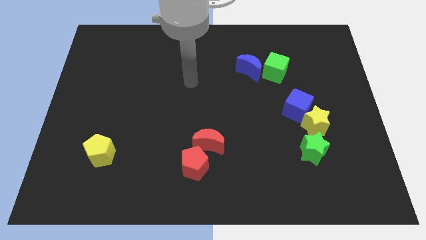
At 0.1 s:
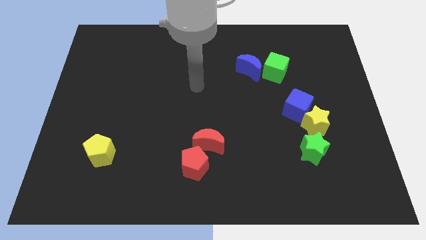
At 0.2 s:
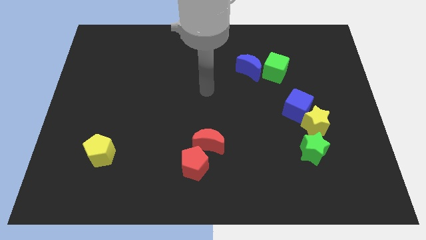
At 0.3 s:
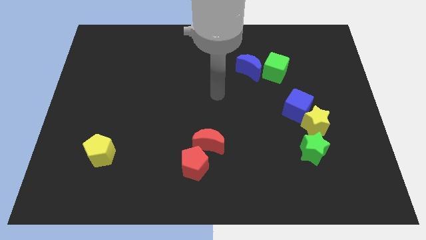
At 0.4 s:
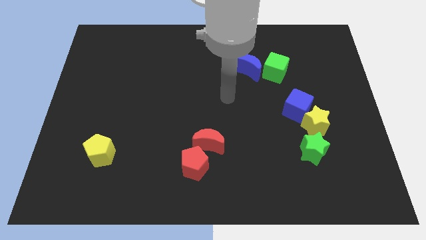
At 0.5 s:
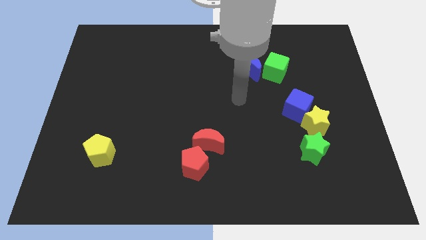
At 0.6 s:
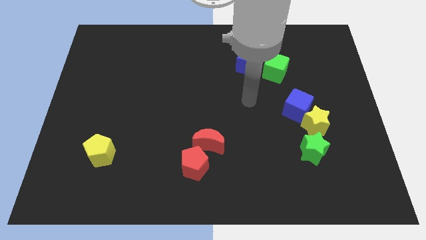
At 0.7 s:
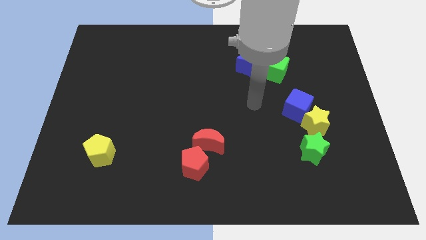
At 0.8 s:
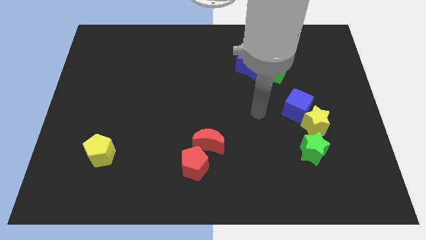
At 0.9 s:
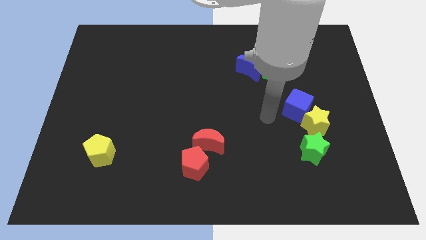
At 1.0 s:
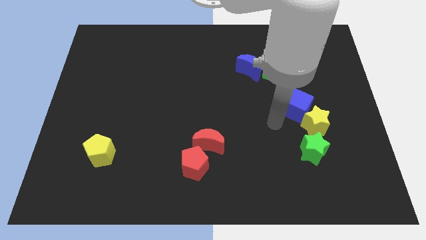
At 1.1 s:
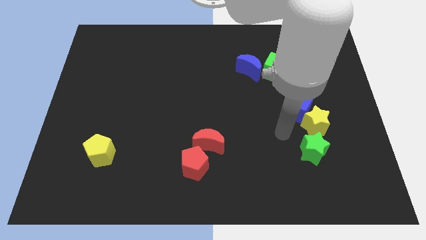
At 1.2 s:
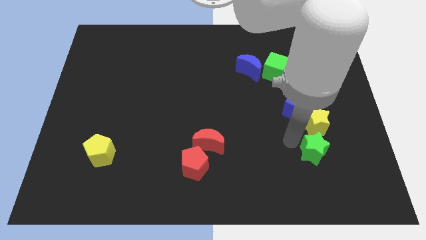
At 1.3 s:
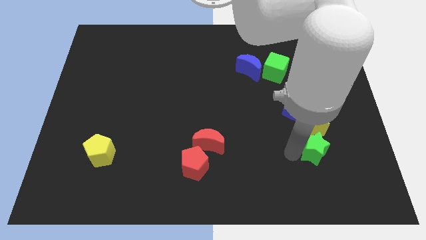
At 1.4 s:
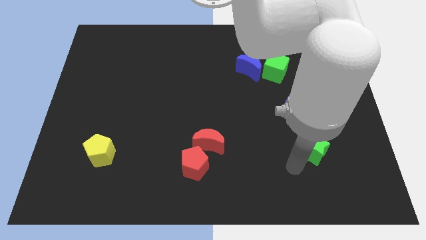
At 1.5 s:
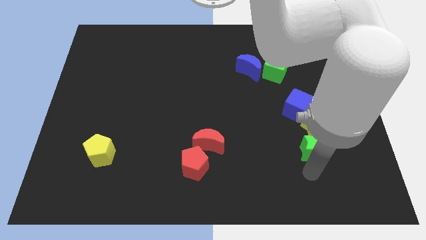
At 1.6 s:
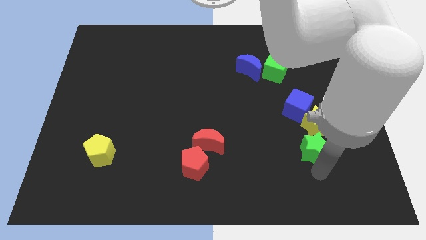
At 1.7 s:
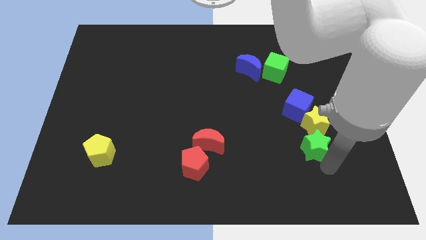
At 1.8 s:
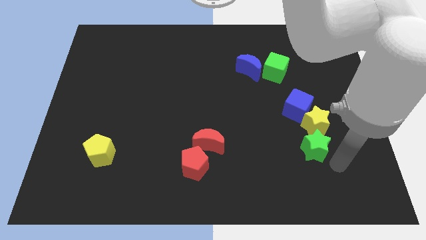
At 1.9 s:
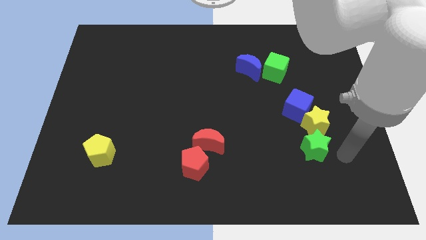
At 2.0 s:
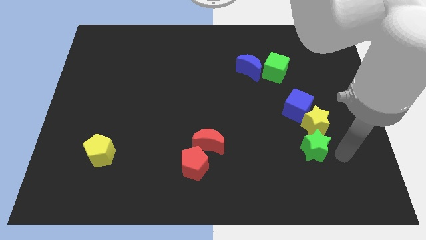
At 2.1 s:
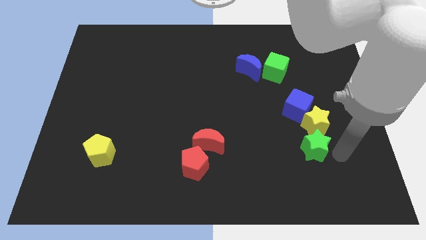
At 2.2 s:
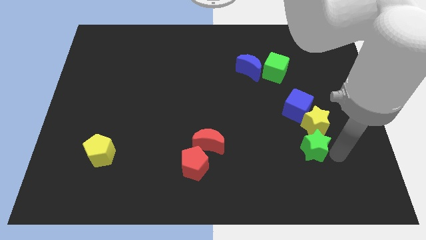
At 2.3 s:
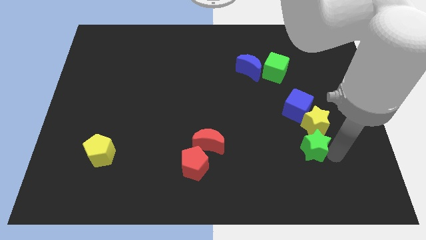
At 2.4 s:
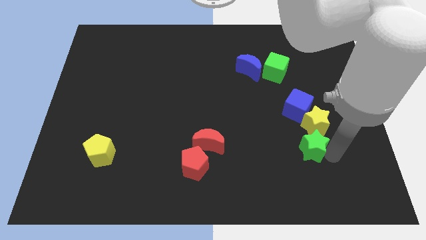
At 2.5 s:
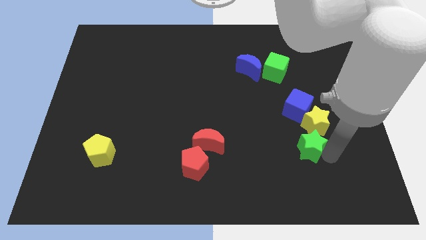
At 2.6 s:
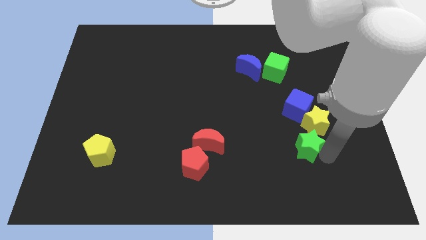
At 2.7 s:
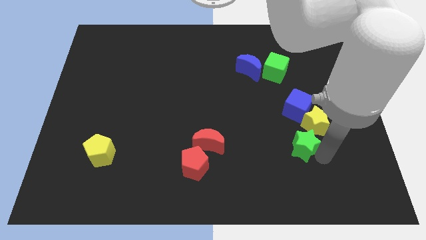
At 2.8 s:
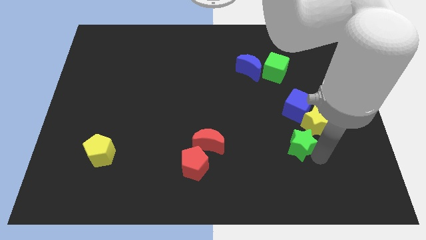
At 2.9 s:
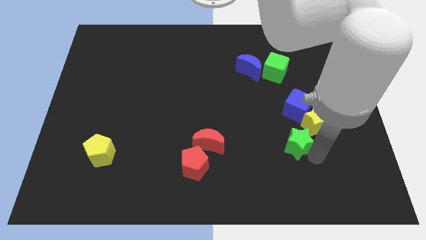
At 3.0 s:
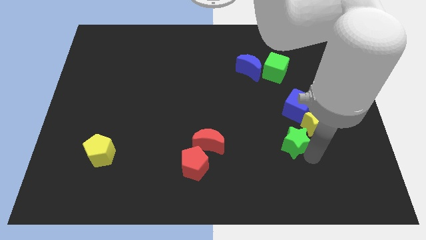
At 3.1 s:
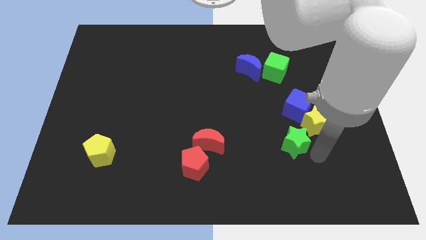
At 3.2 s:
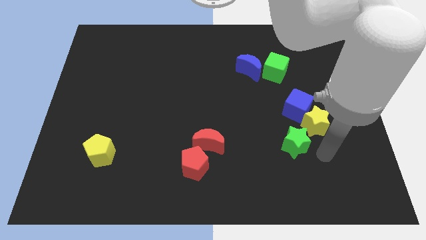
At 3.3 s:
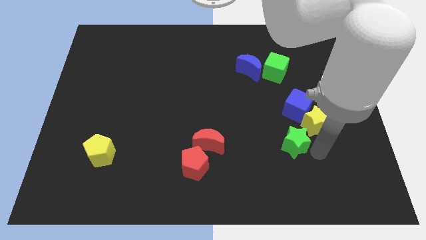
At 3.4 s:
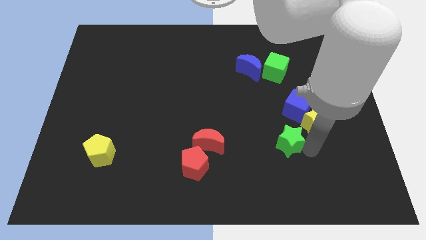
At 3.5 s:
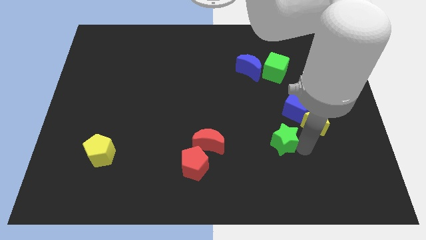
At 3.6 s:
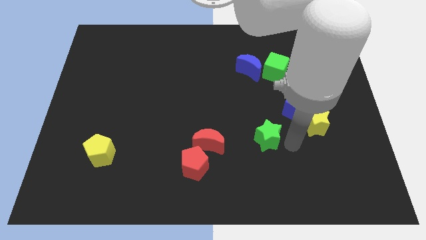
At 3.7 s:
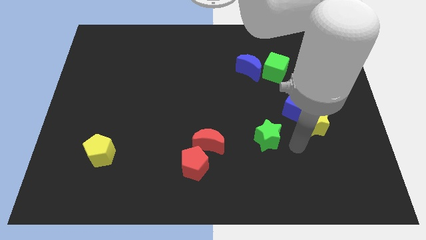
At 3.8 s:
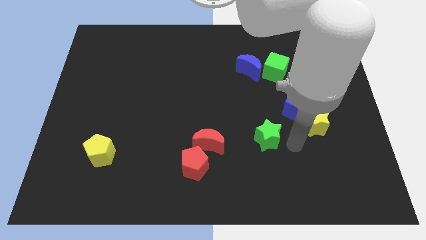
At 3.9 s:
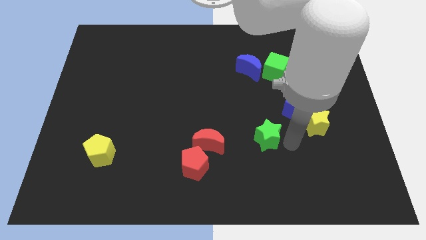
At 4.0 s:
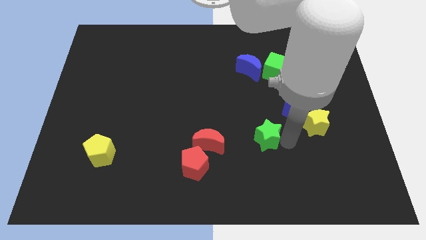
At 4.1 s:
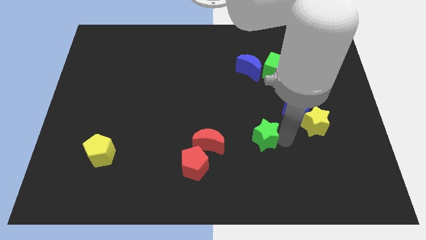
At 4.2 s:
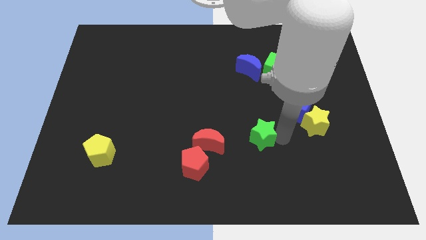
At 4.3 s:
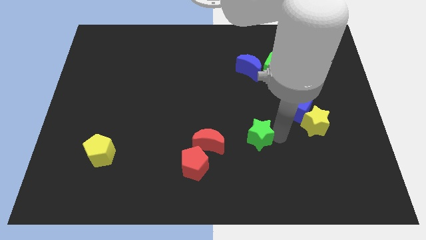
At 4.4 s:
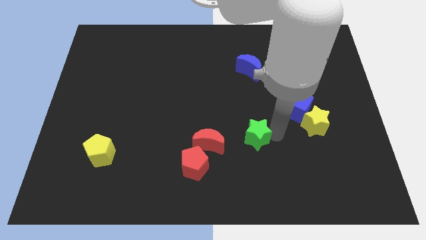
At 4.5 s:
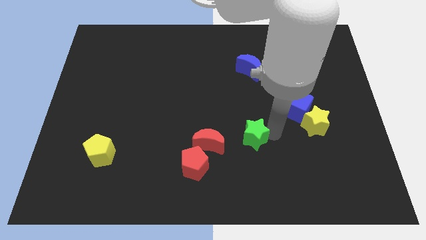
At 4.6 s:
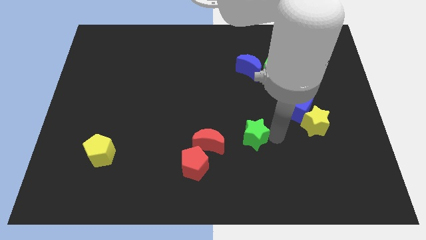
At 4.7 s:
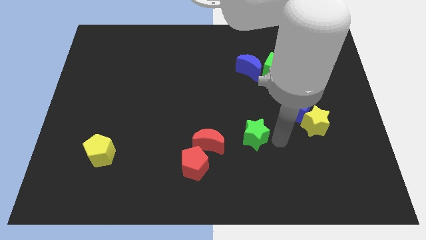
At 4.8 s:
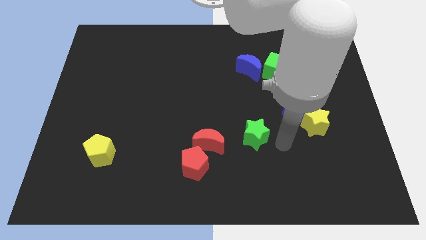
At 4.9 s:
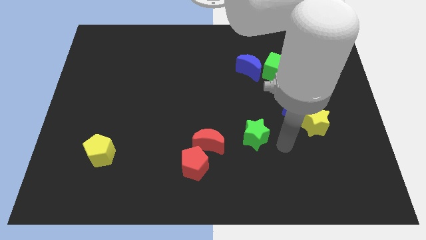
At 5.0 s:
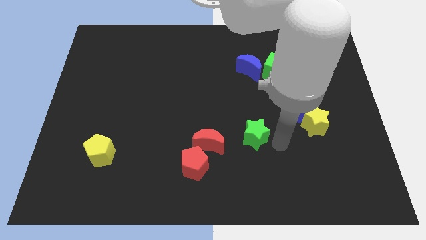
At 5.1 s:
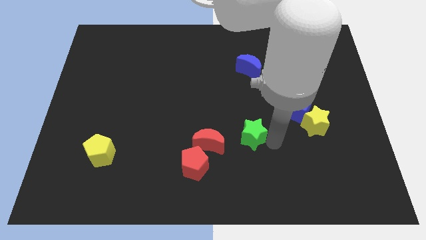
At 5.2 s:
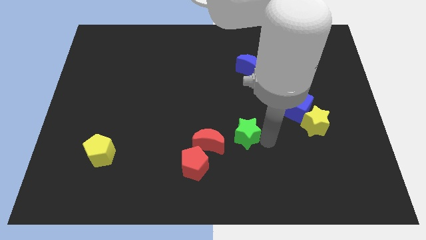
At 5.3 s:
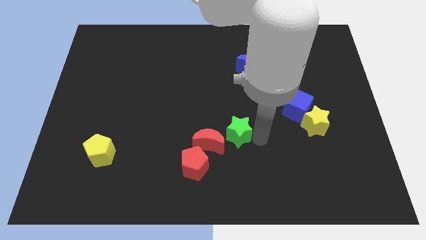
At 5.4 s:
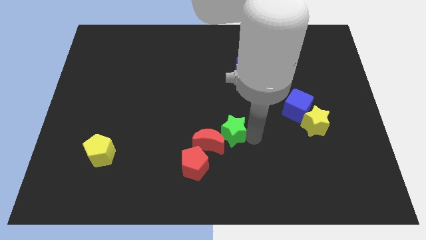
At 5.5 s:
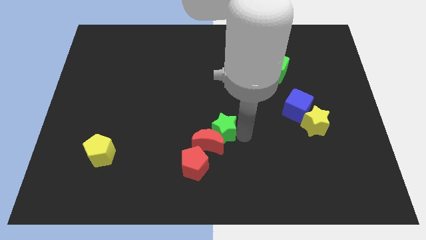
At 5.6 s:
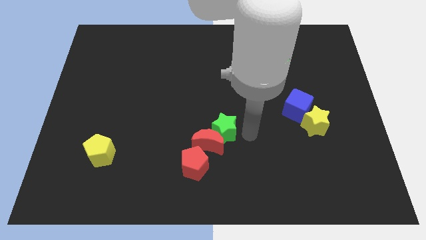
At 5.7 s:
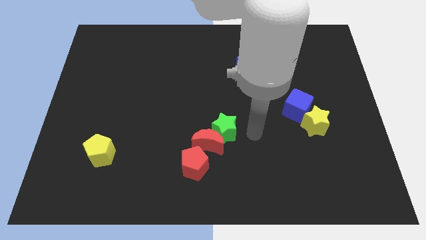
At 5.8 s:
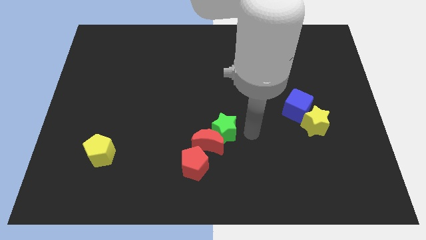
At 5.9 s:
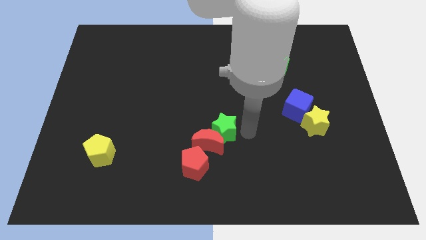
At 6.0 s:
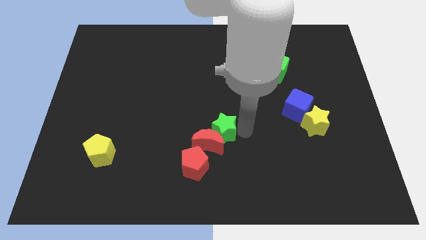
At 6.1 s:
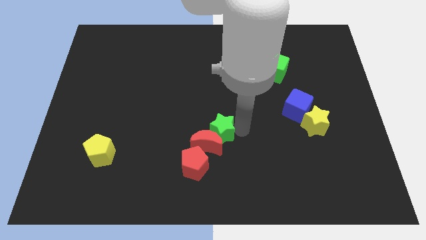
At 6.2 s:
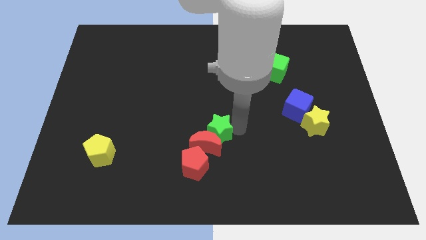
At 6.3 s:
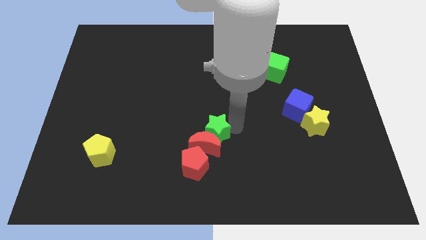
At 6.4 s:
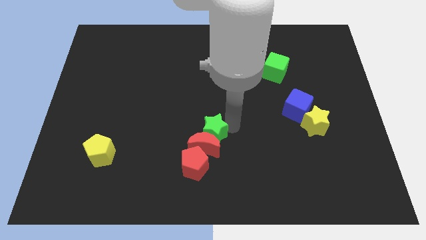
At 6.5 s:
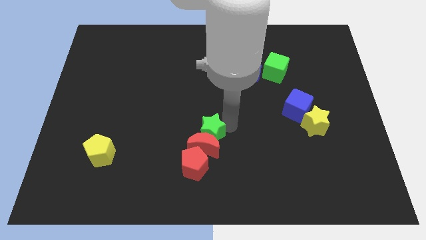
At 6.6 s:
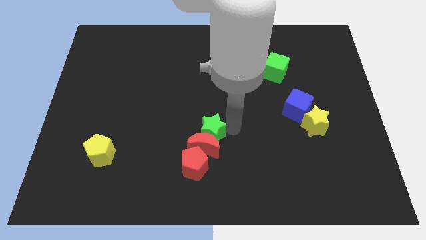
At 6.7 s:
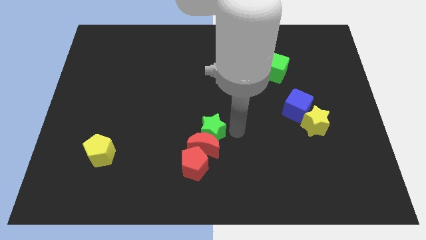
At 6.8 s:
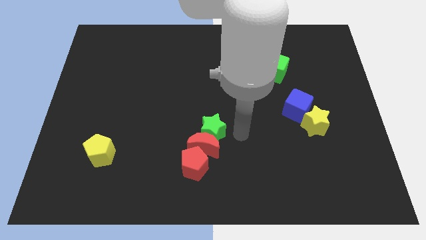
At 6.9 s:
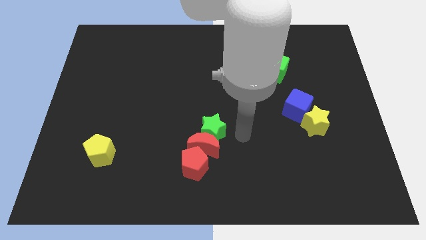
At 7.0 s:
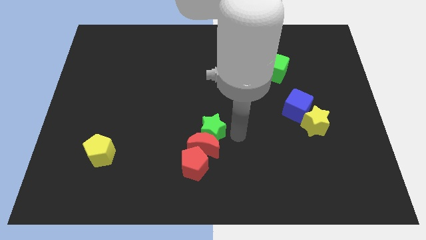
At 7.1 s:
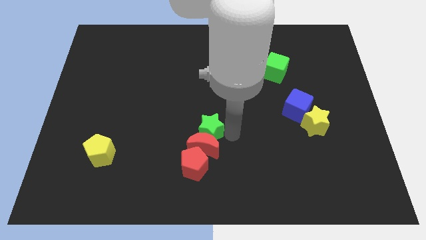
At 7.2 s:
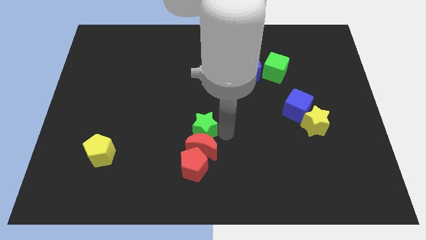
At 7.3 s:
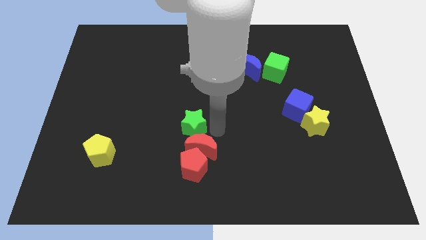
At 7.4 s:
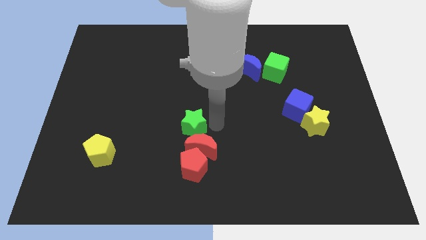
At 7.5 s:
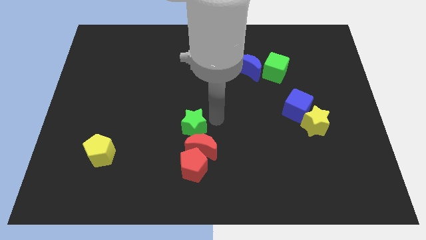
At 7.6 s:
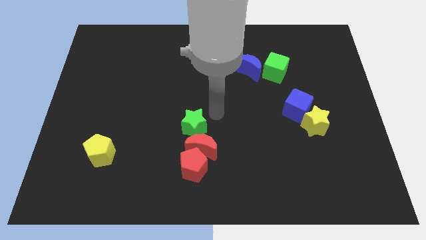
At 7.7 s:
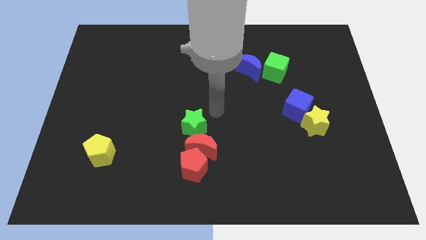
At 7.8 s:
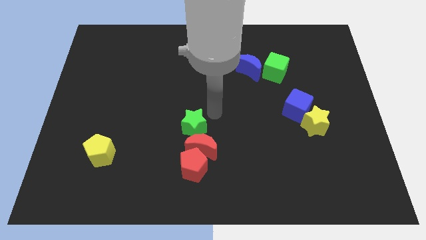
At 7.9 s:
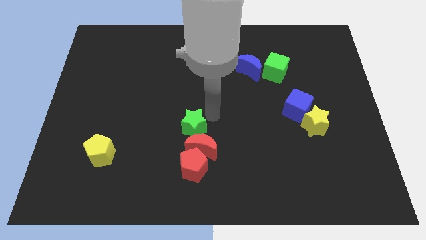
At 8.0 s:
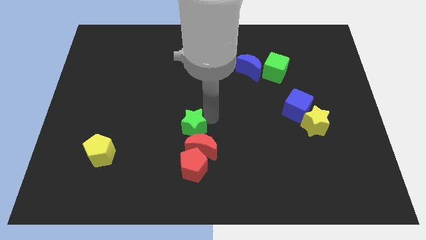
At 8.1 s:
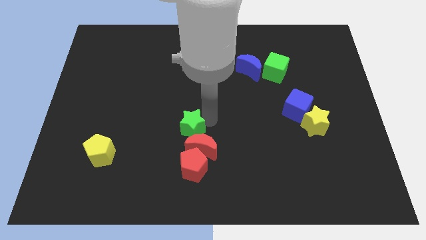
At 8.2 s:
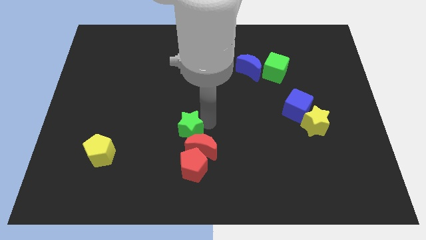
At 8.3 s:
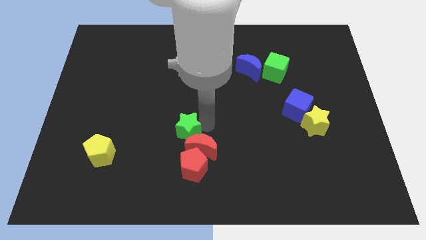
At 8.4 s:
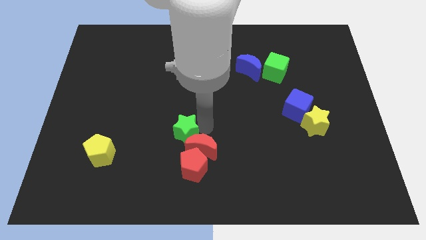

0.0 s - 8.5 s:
put the green star diagonally up and to the left of the red pentagon
